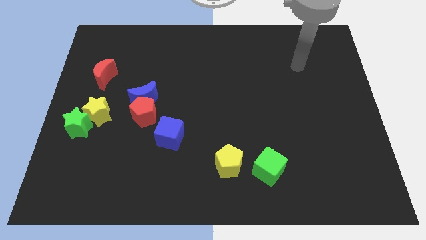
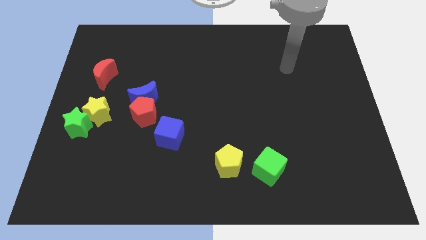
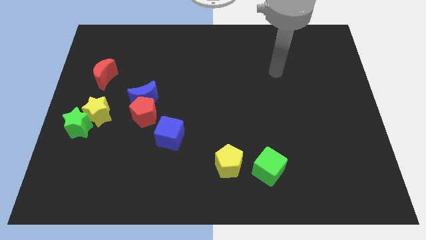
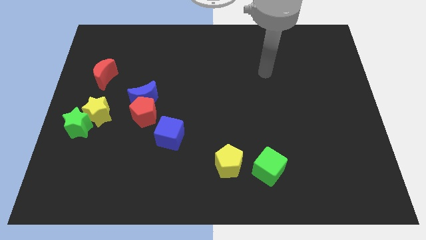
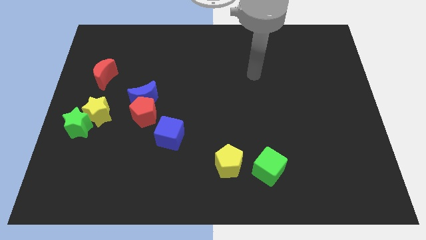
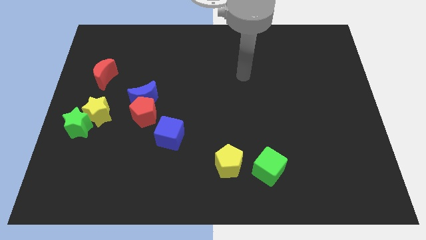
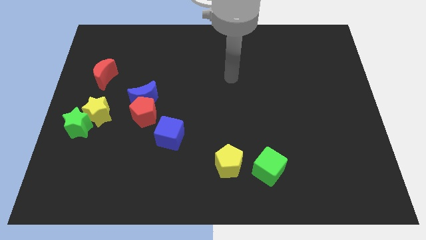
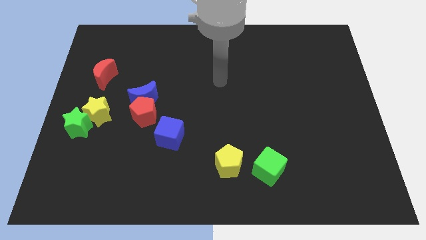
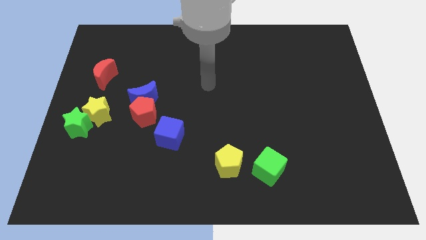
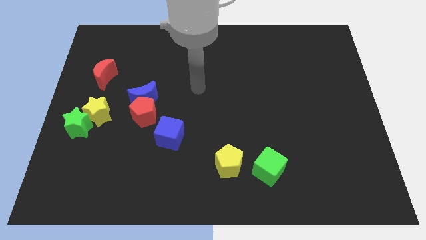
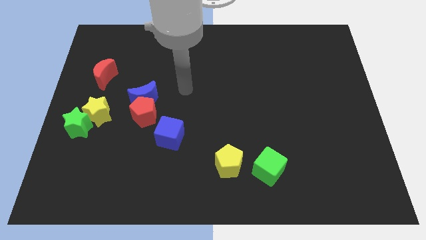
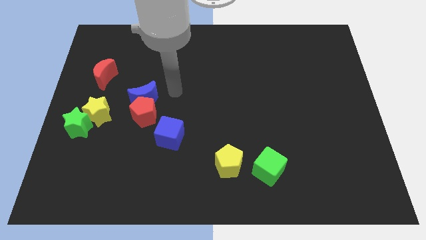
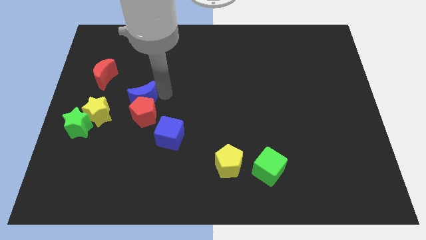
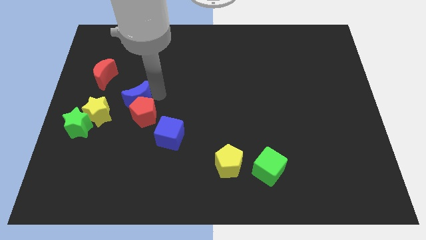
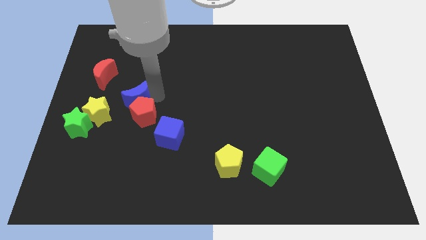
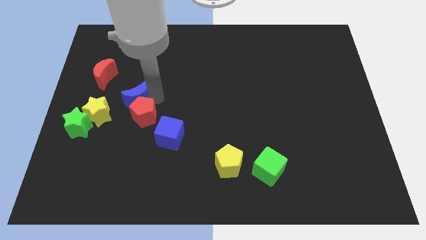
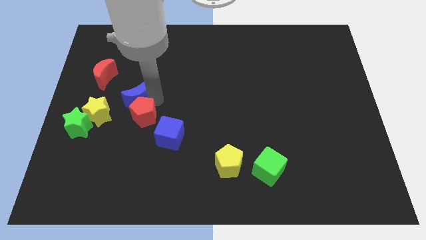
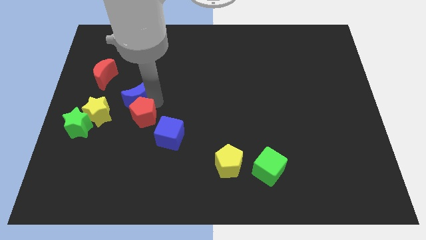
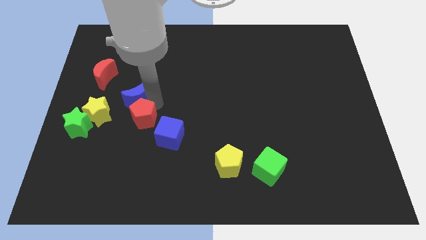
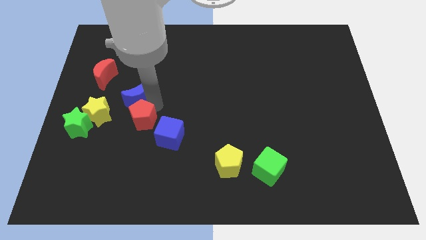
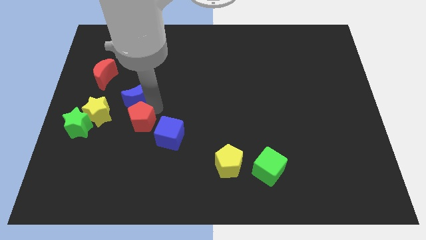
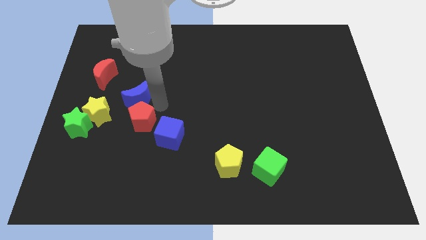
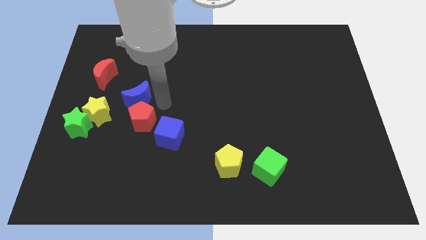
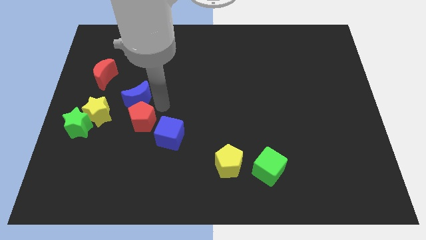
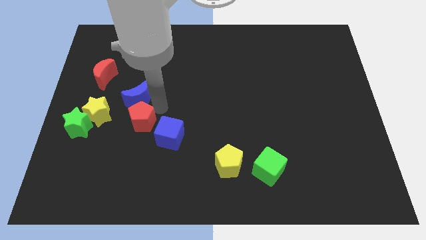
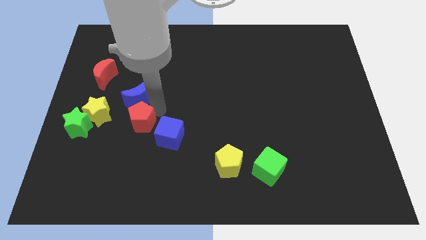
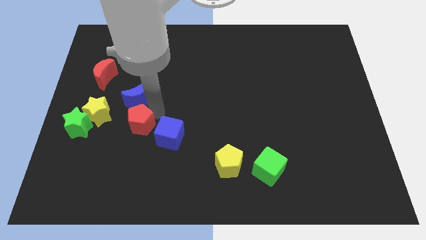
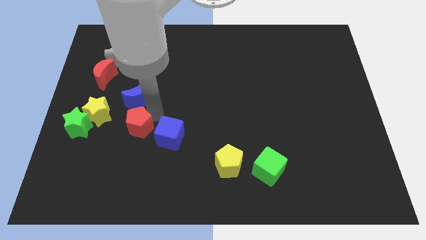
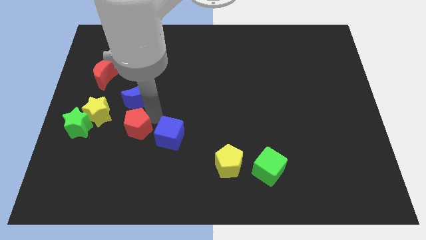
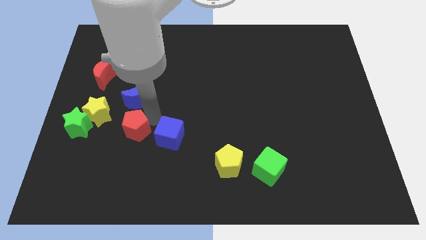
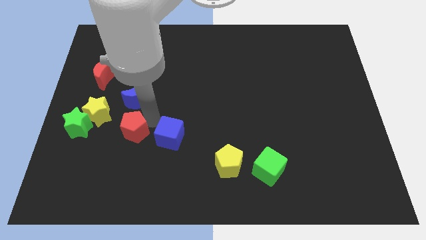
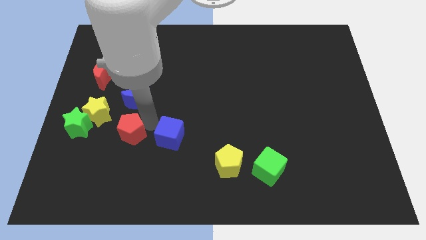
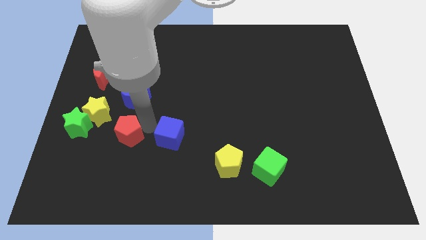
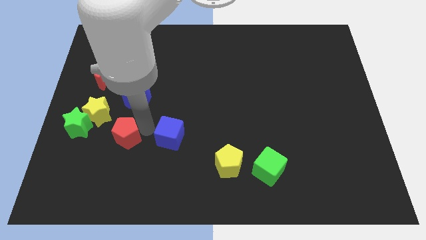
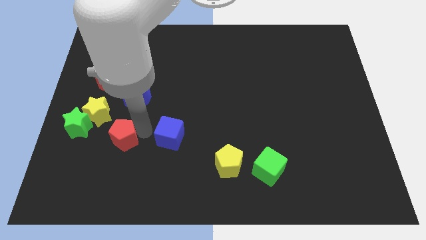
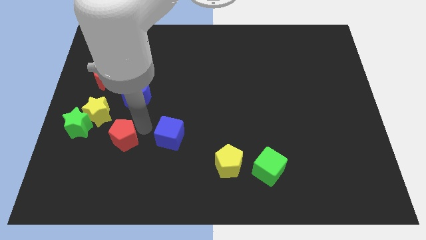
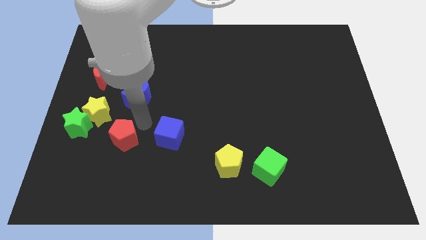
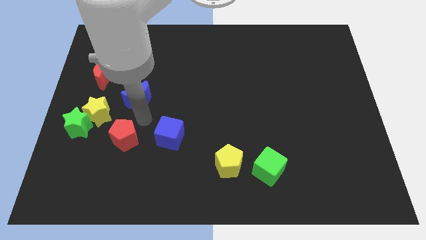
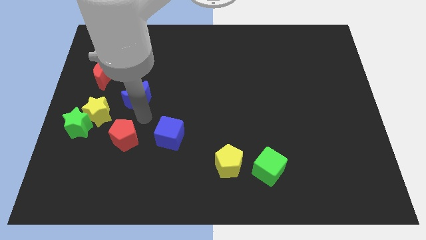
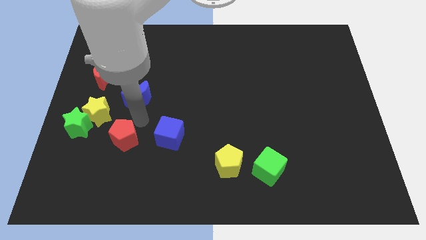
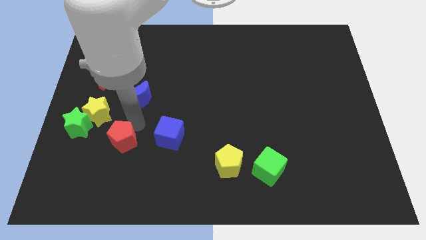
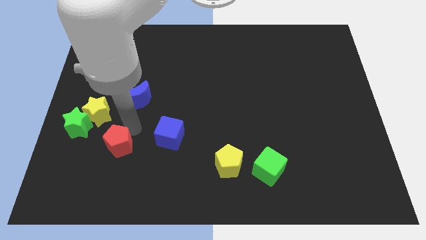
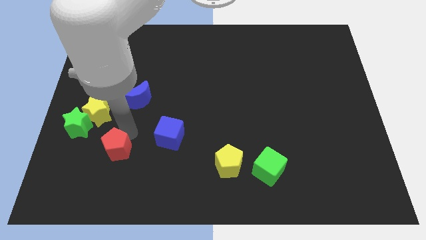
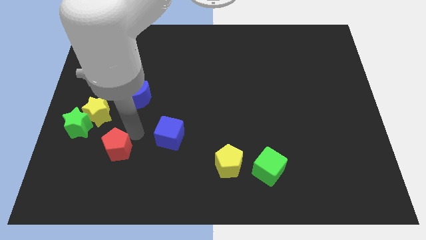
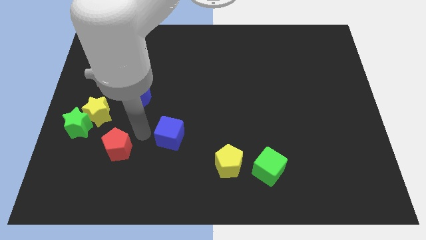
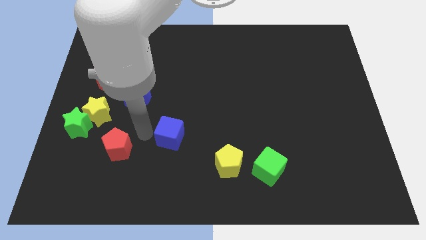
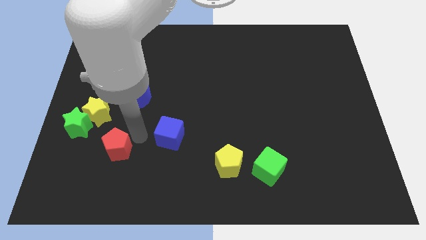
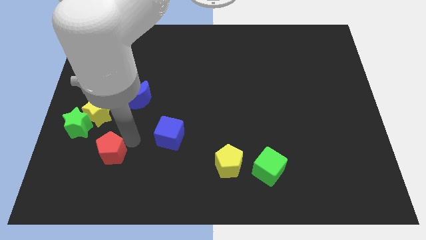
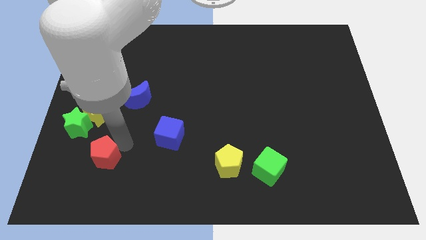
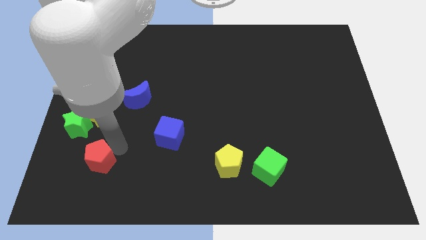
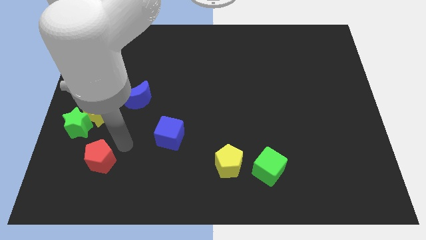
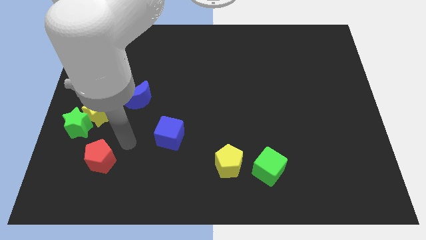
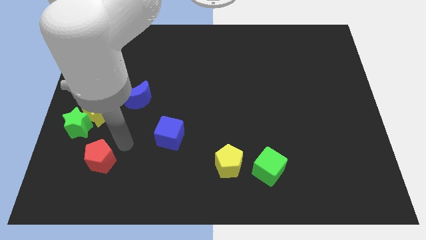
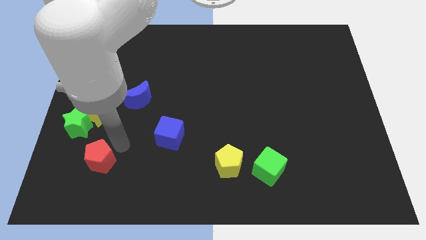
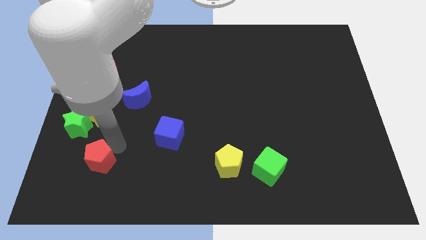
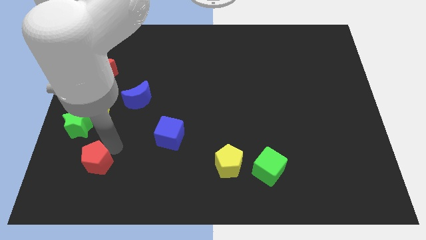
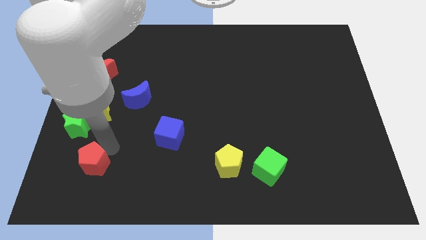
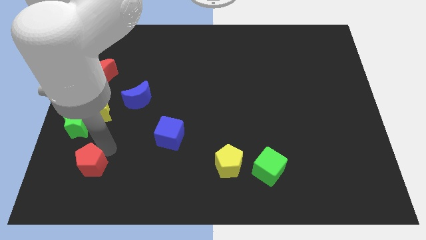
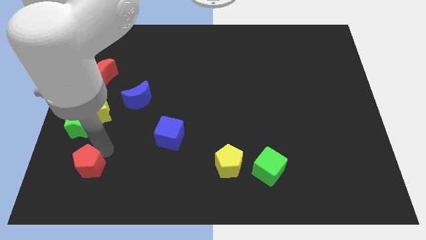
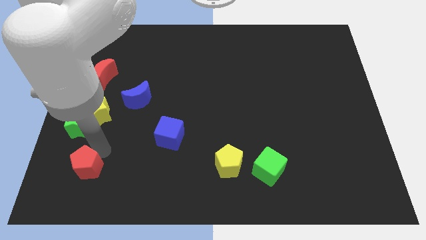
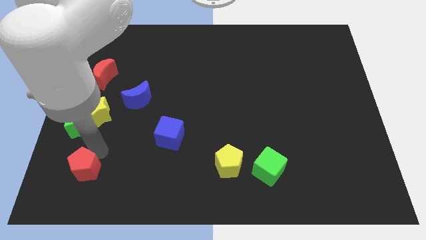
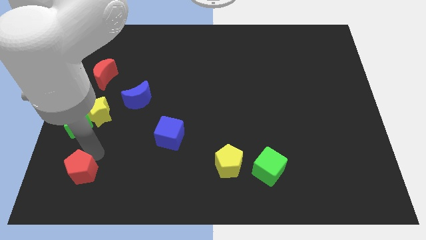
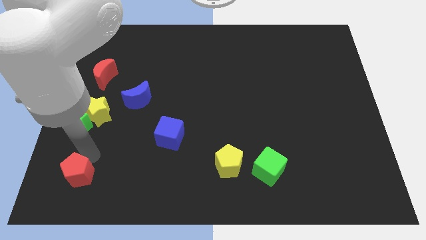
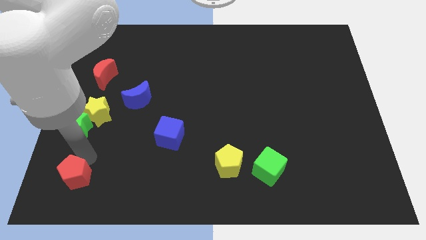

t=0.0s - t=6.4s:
move the red pentagon to the bottom left
